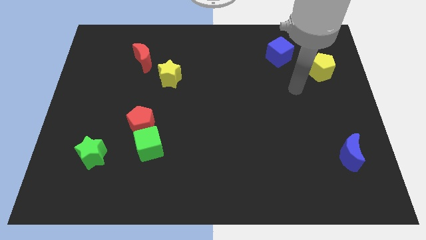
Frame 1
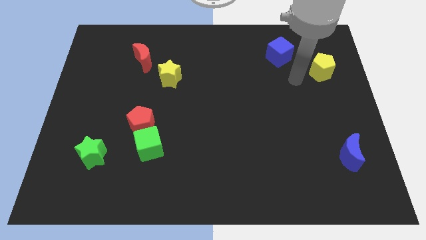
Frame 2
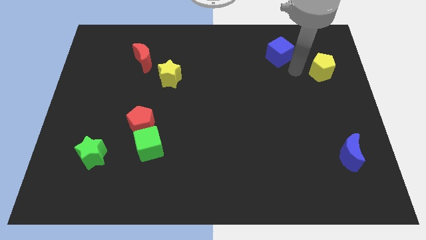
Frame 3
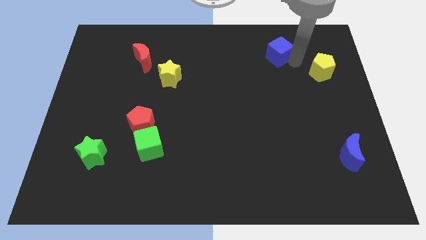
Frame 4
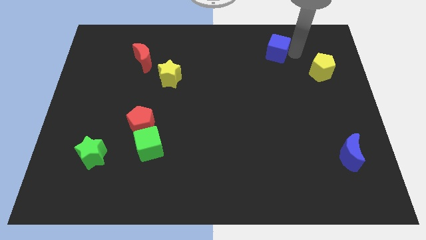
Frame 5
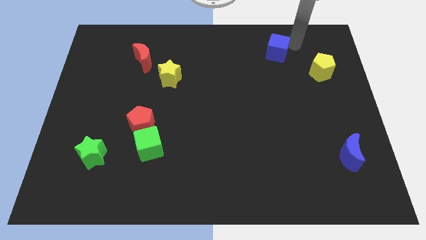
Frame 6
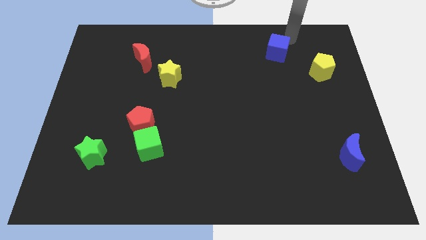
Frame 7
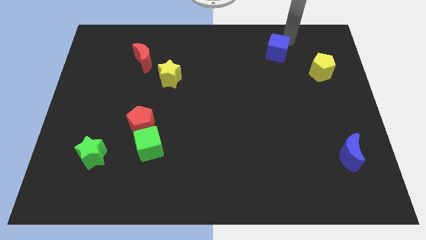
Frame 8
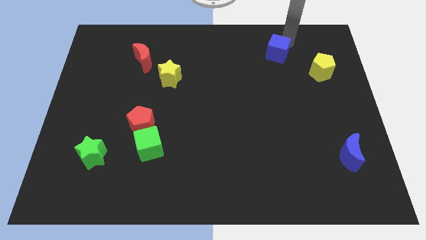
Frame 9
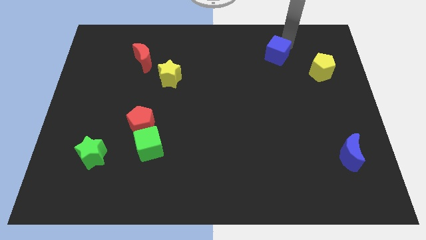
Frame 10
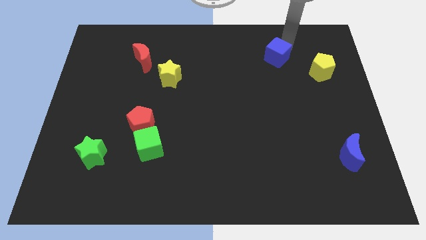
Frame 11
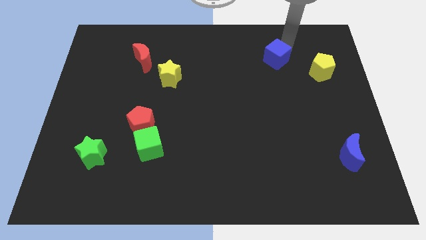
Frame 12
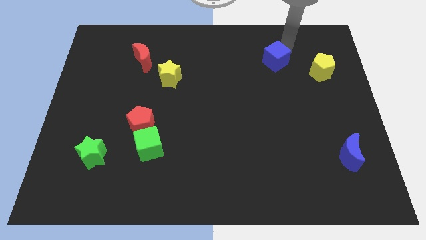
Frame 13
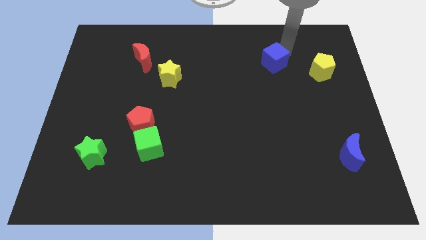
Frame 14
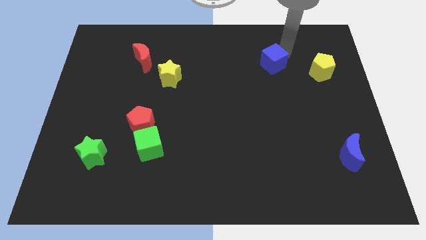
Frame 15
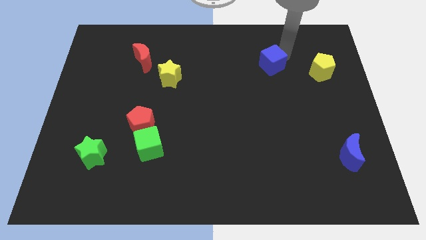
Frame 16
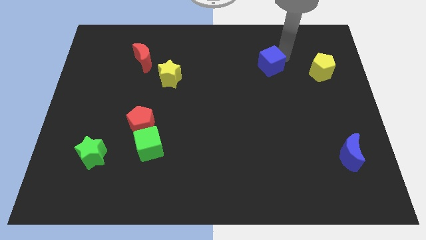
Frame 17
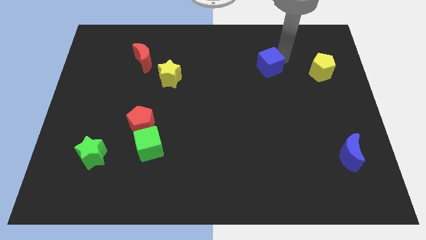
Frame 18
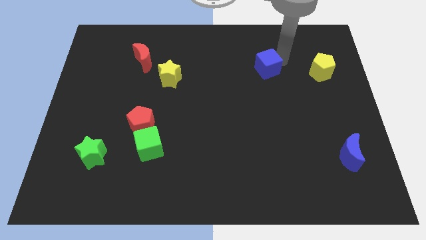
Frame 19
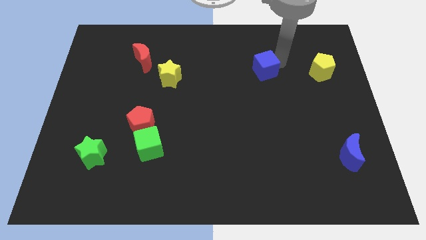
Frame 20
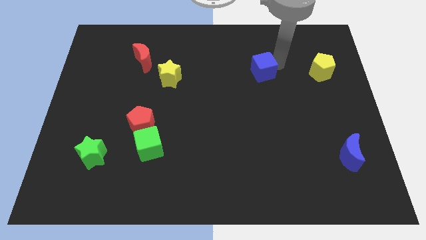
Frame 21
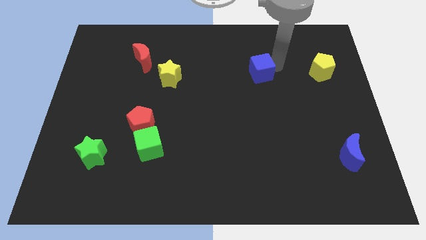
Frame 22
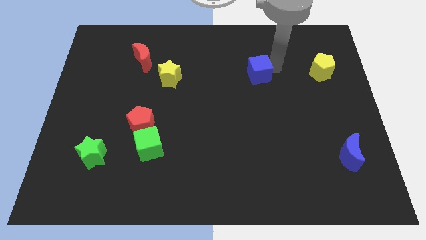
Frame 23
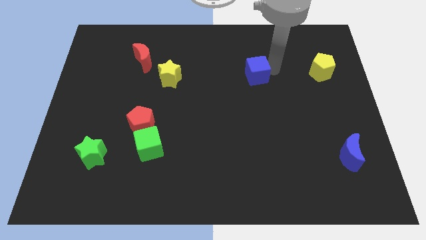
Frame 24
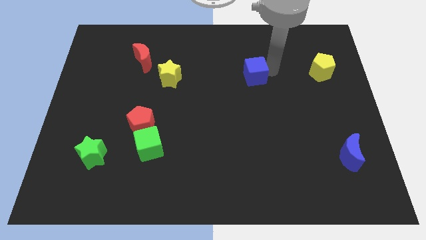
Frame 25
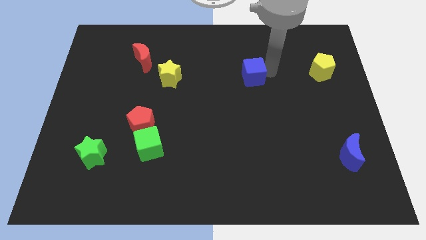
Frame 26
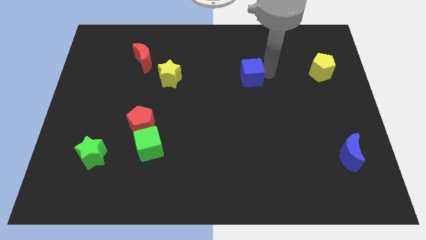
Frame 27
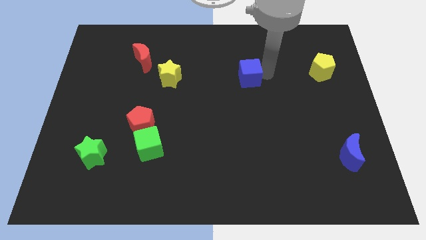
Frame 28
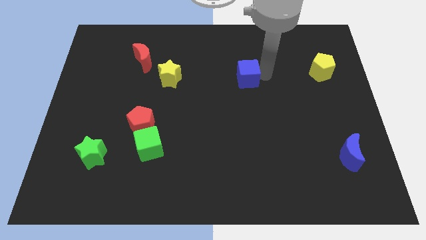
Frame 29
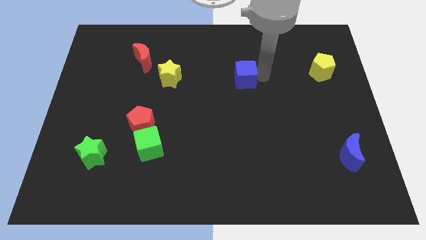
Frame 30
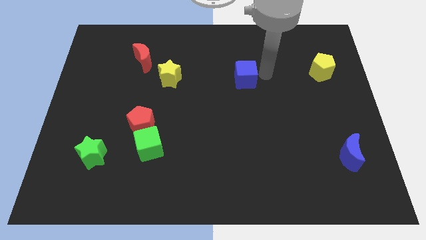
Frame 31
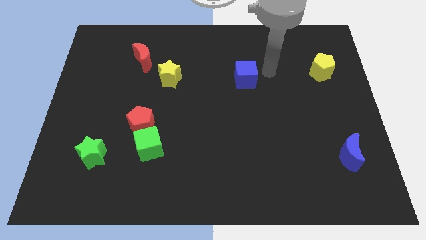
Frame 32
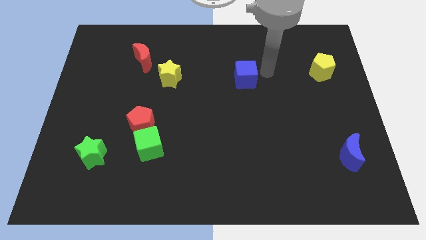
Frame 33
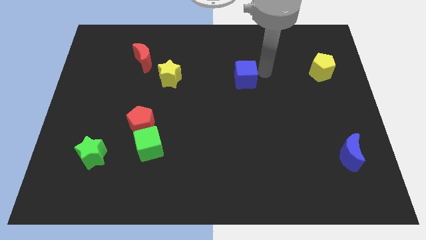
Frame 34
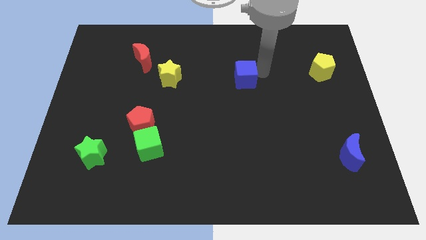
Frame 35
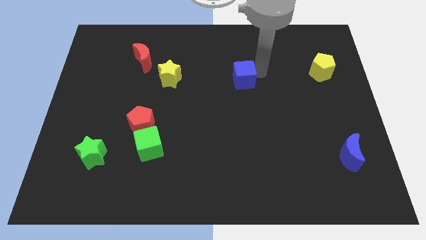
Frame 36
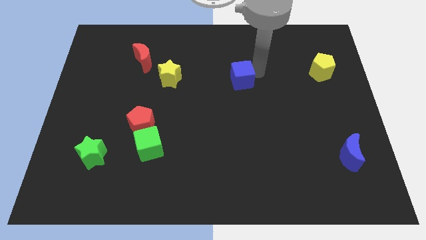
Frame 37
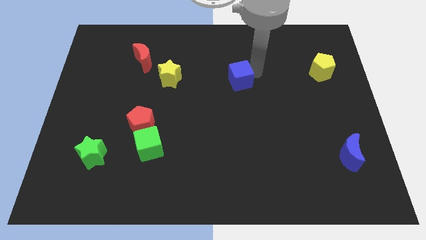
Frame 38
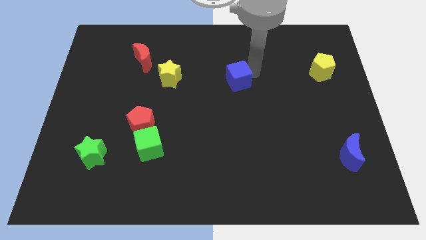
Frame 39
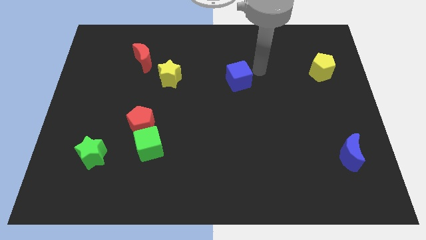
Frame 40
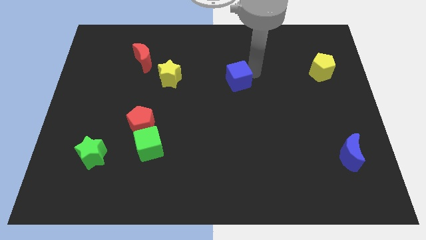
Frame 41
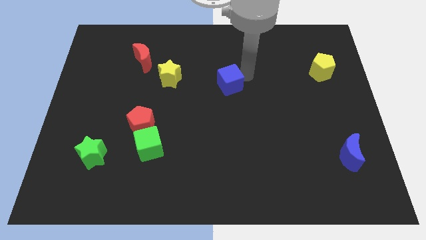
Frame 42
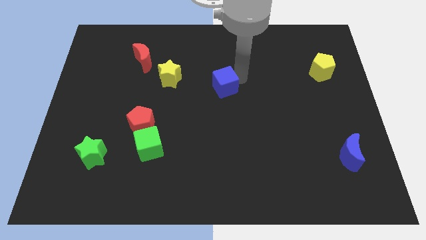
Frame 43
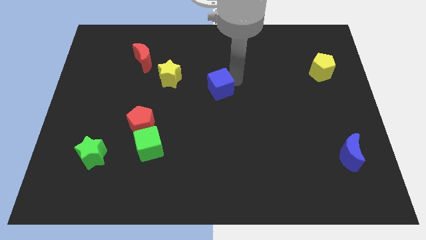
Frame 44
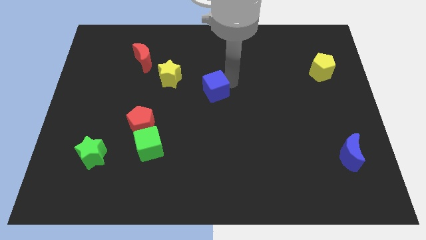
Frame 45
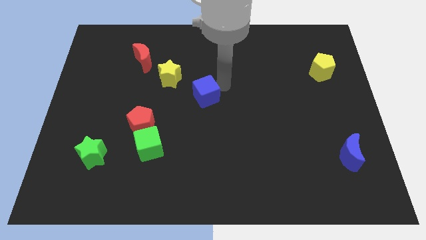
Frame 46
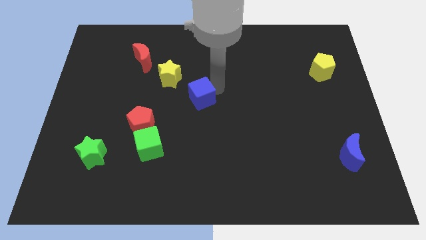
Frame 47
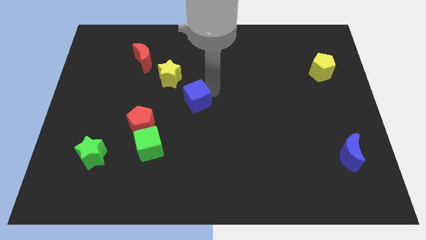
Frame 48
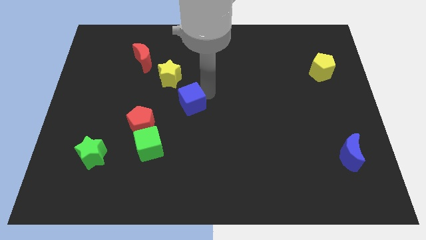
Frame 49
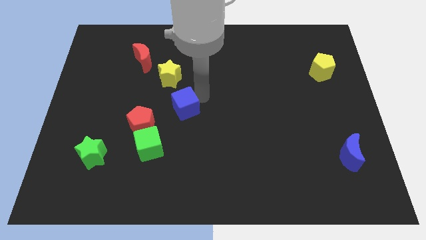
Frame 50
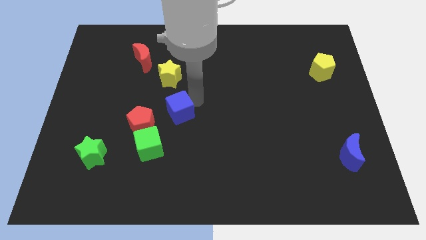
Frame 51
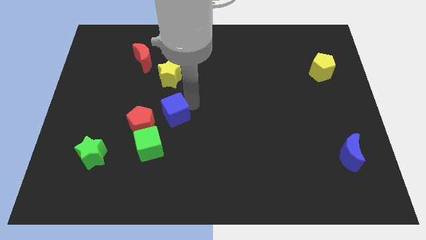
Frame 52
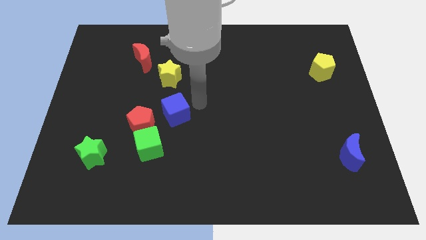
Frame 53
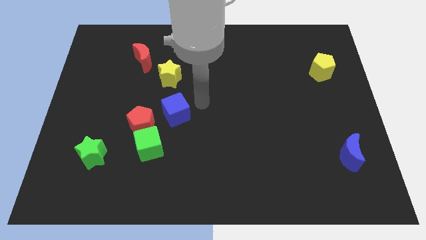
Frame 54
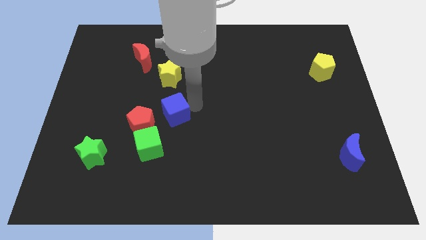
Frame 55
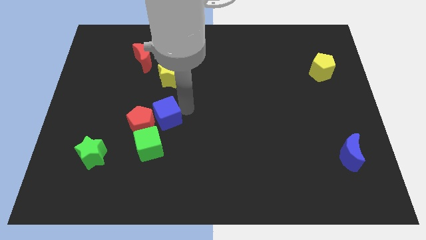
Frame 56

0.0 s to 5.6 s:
slide the blue cube to the red pentagon

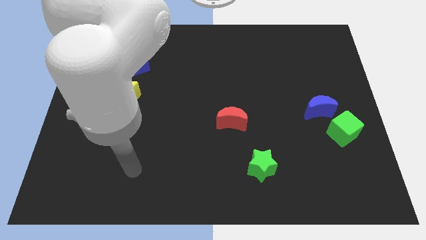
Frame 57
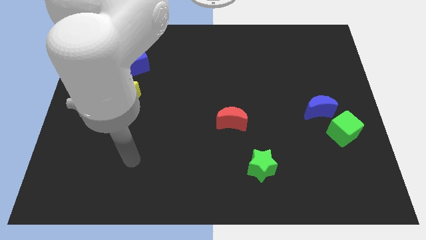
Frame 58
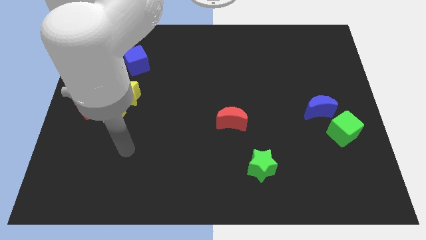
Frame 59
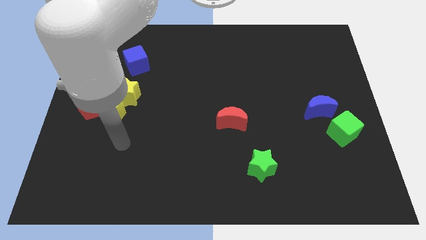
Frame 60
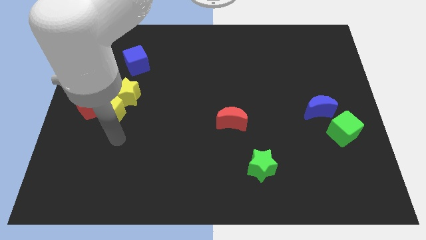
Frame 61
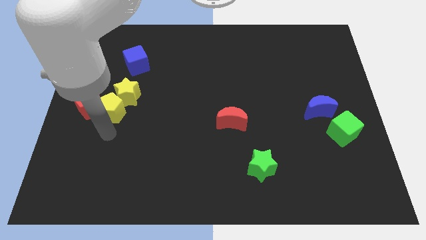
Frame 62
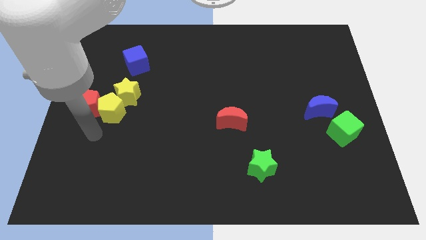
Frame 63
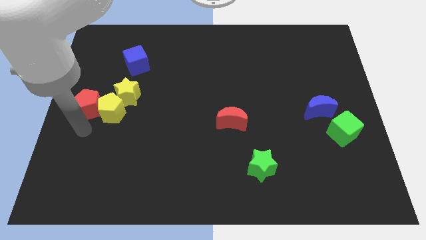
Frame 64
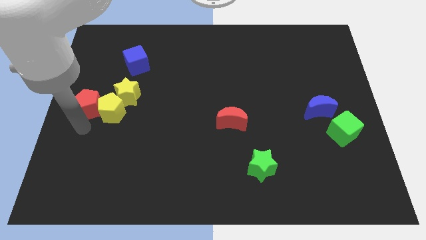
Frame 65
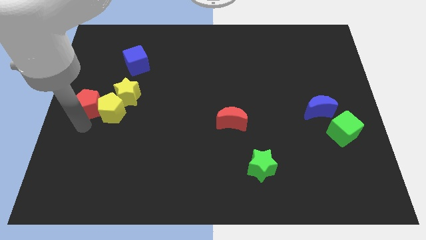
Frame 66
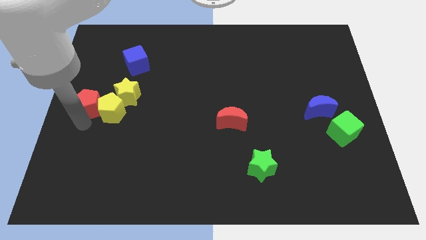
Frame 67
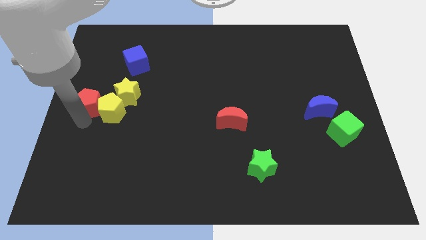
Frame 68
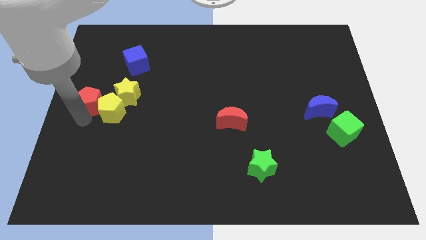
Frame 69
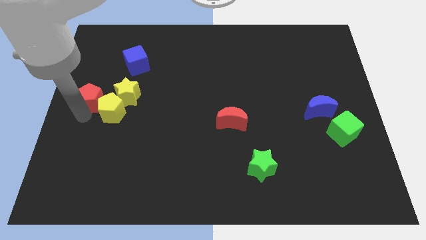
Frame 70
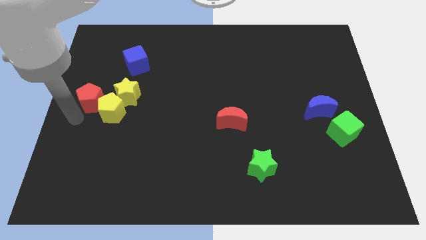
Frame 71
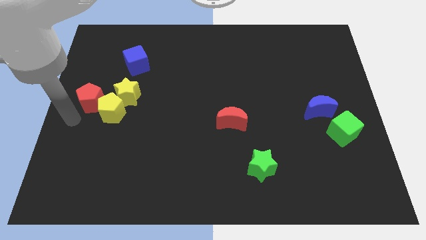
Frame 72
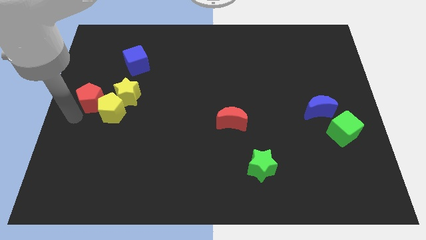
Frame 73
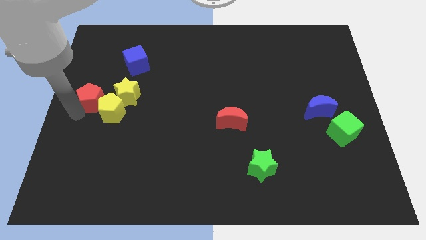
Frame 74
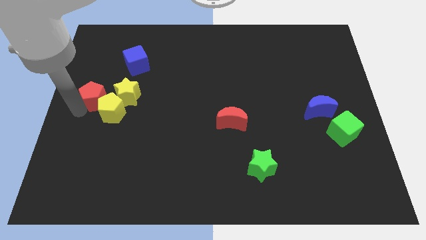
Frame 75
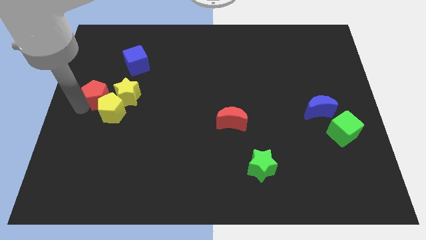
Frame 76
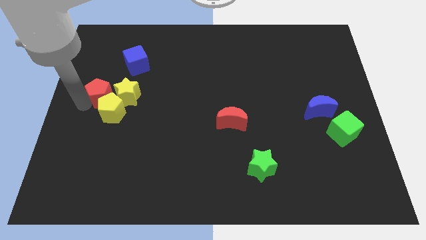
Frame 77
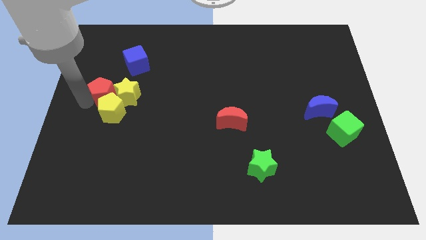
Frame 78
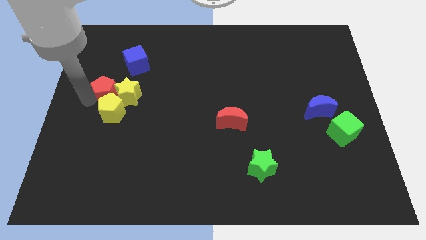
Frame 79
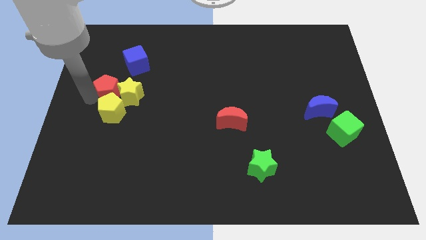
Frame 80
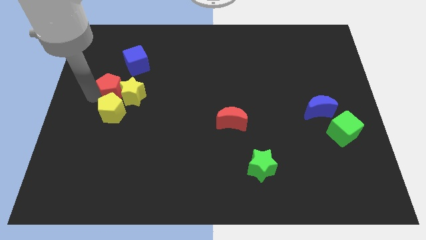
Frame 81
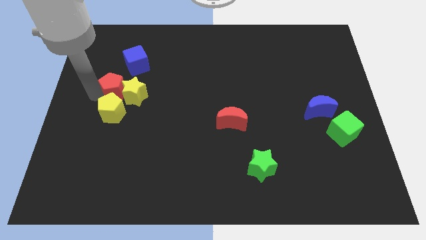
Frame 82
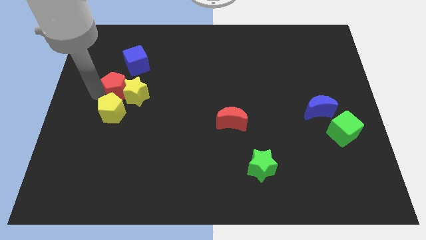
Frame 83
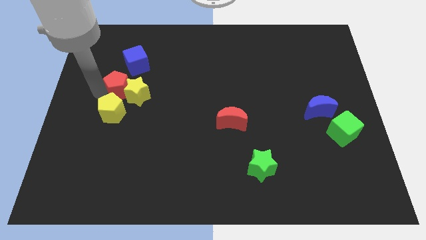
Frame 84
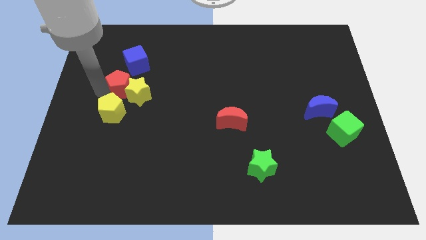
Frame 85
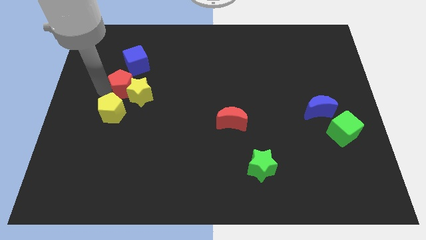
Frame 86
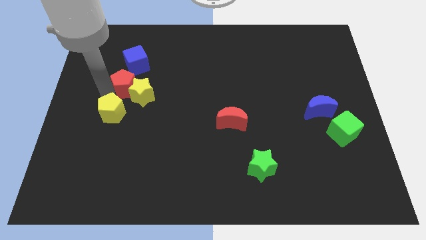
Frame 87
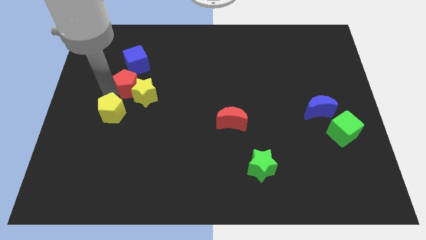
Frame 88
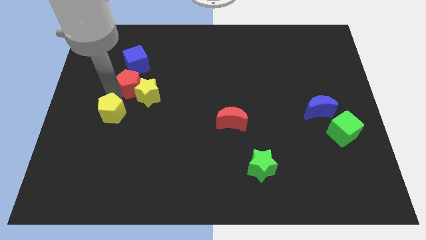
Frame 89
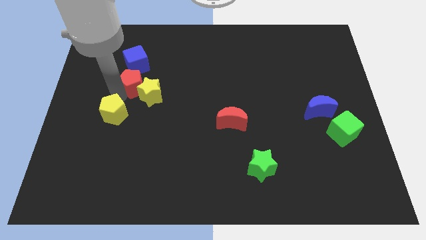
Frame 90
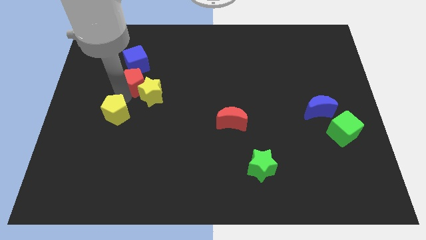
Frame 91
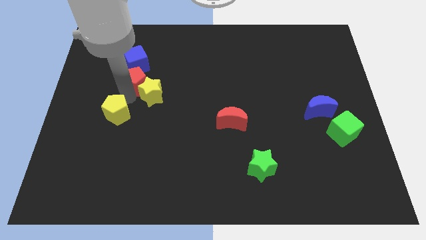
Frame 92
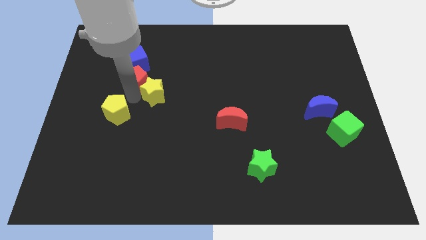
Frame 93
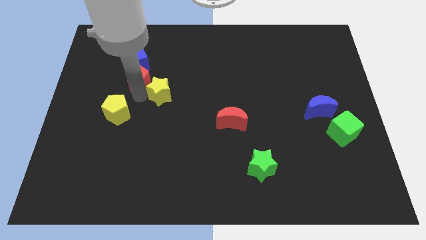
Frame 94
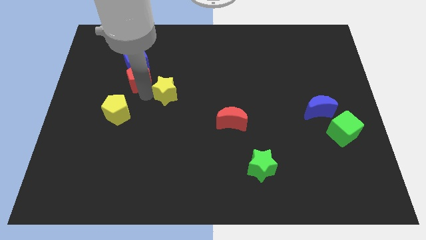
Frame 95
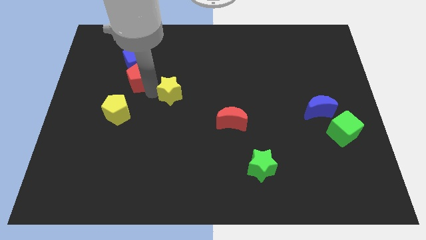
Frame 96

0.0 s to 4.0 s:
move the red pentagon close to the blue cube
